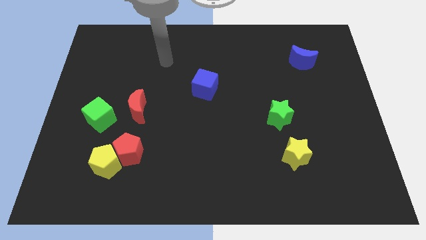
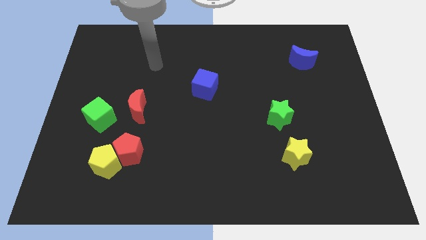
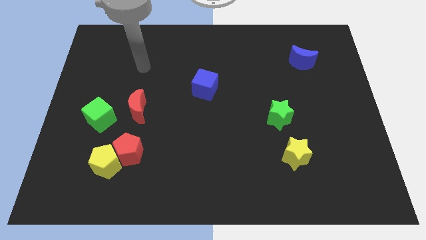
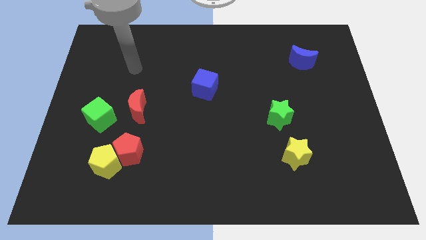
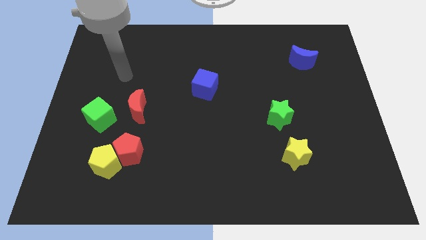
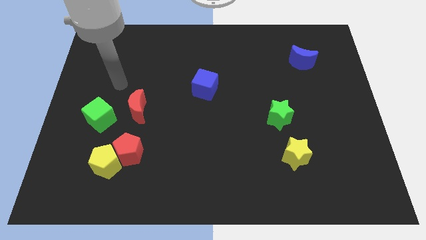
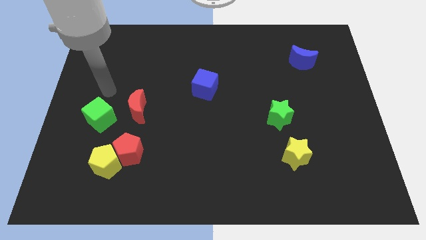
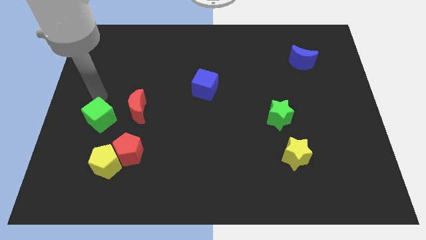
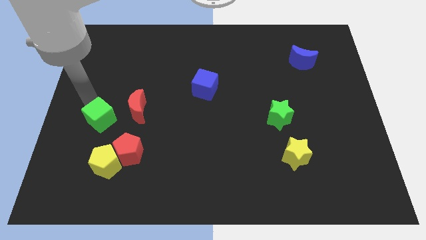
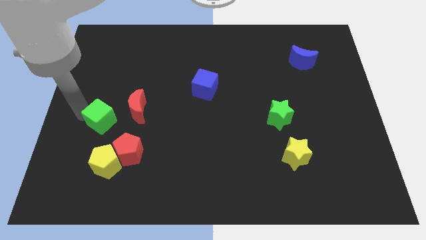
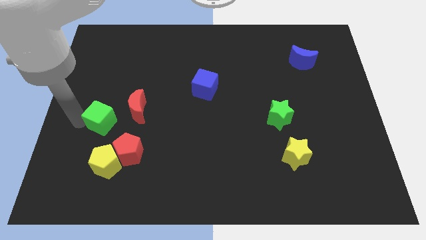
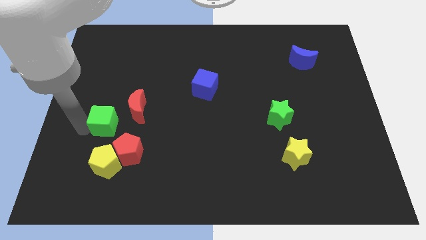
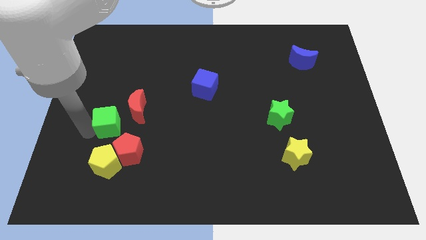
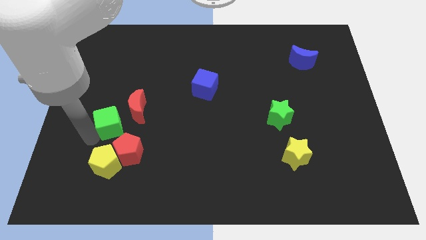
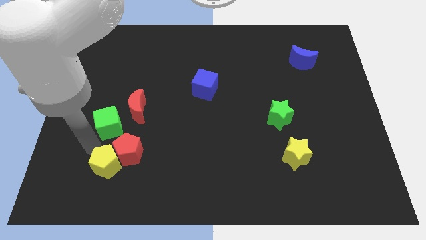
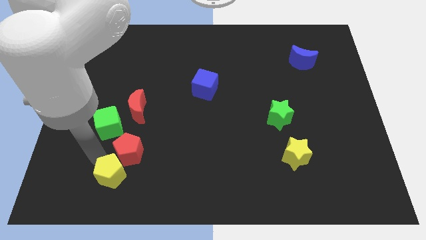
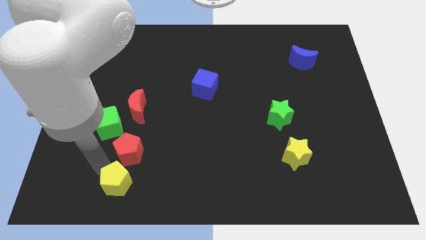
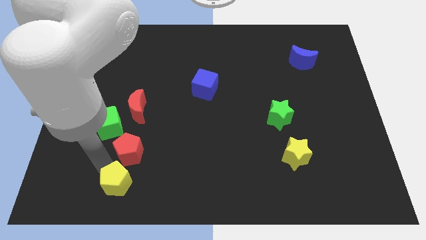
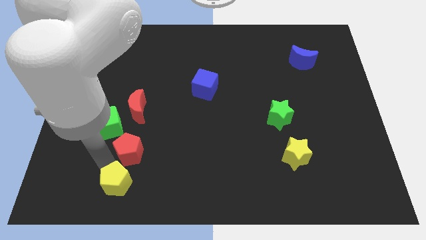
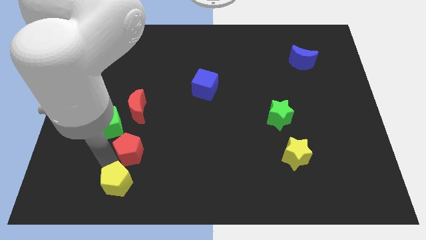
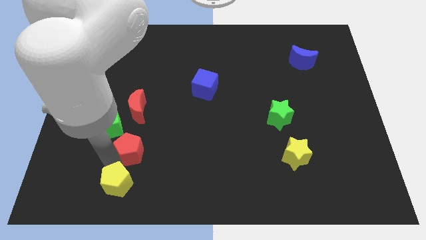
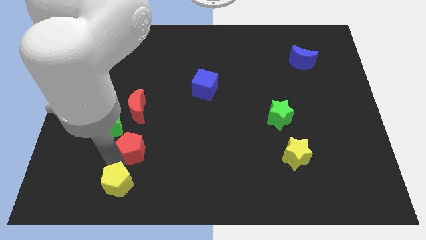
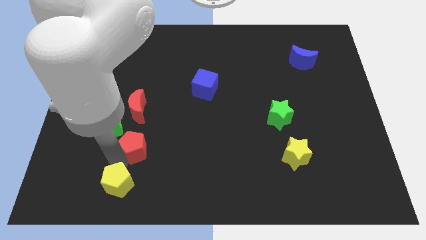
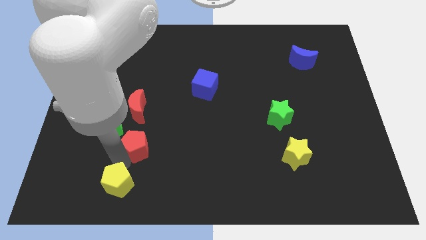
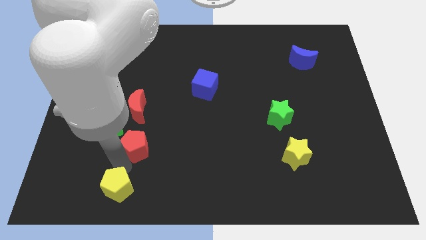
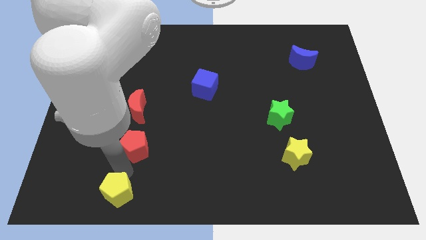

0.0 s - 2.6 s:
pull the red pentagon apart from the yellow pentagon

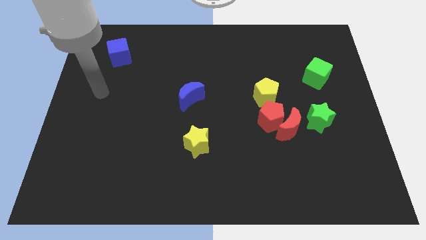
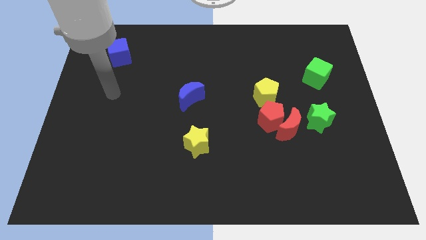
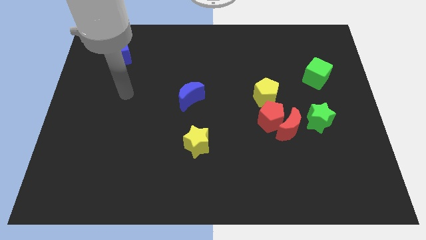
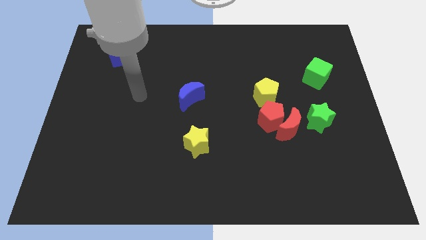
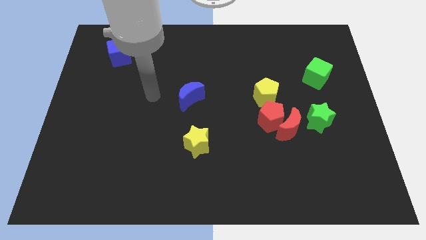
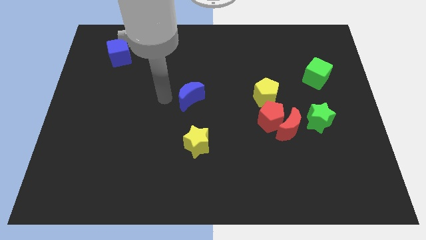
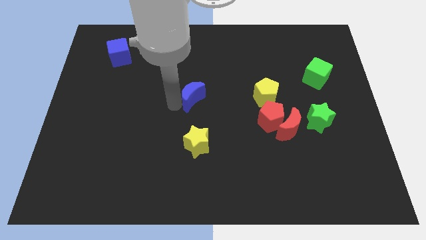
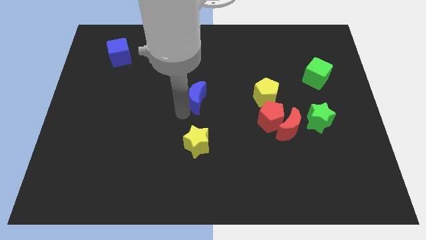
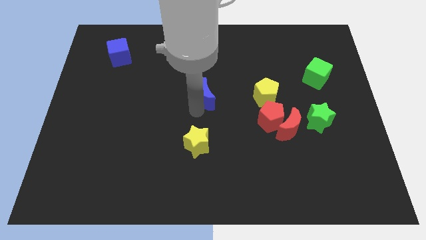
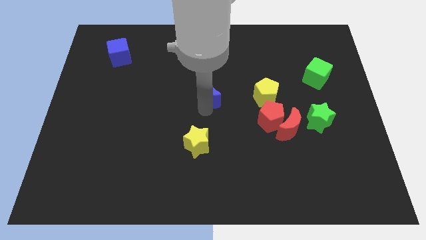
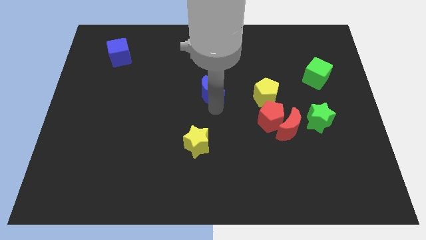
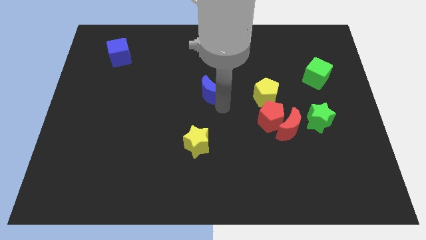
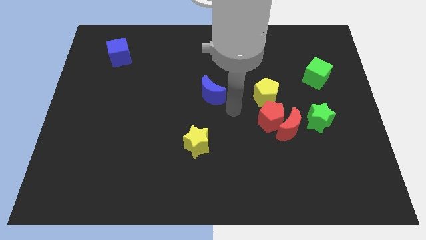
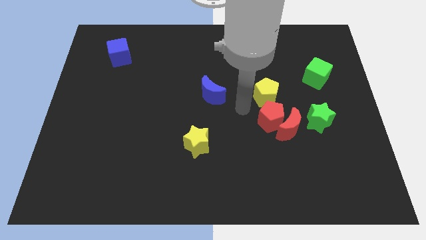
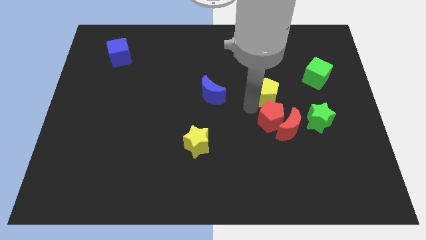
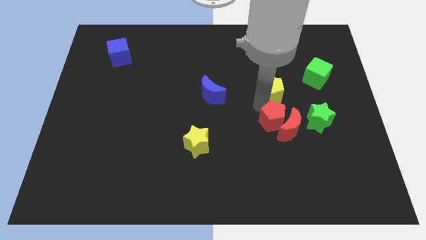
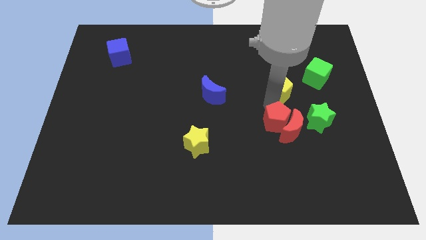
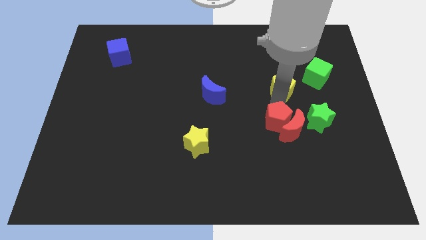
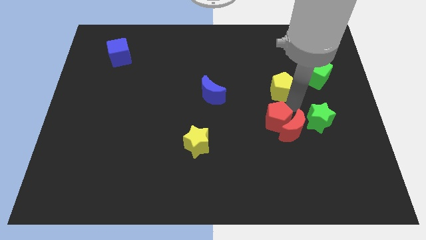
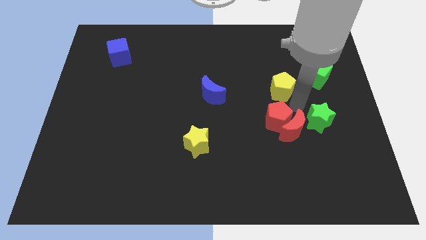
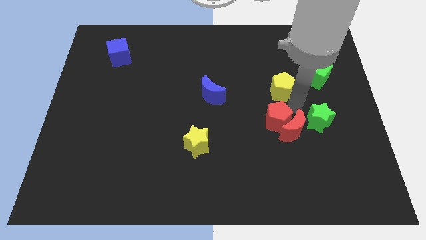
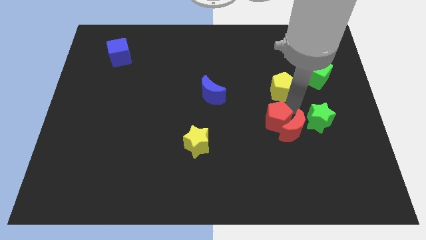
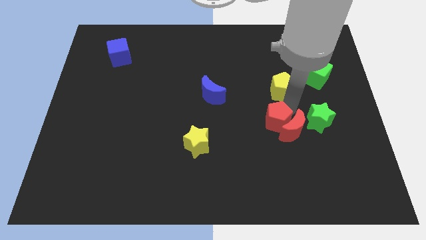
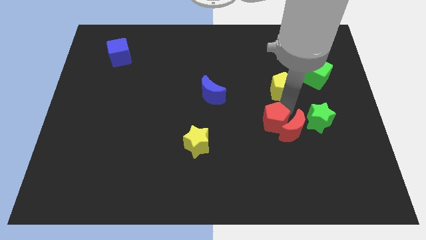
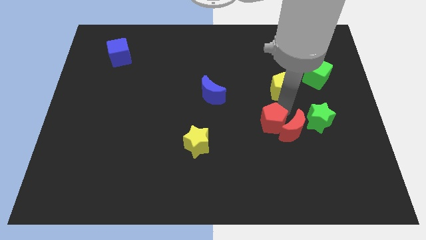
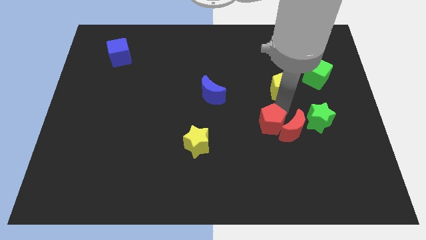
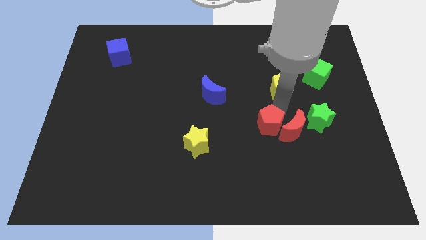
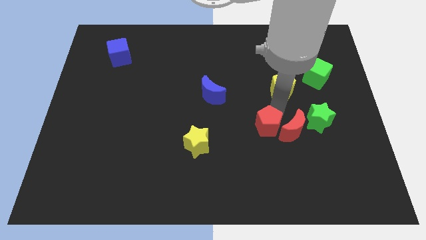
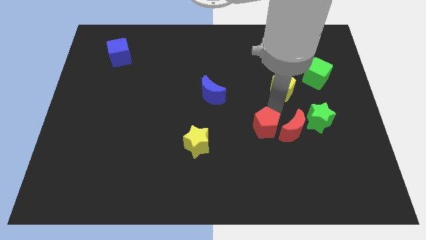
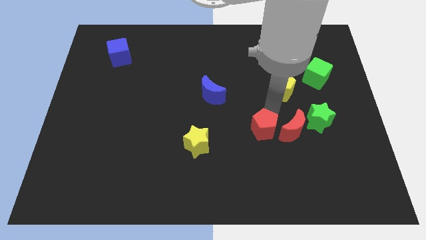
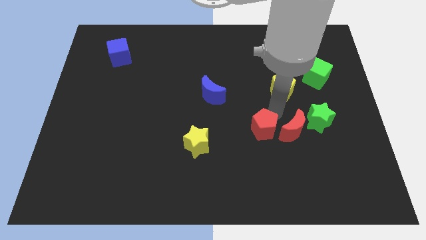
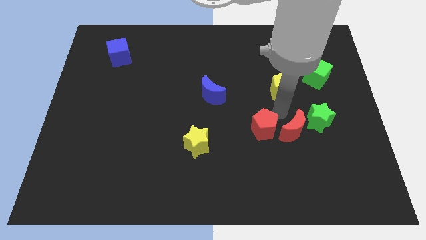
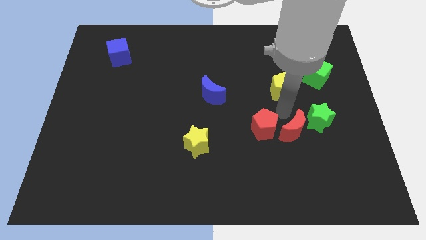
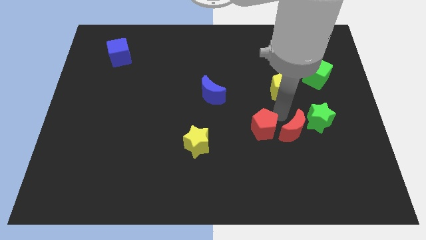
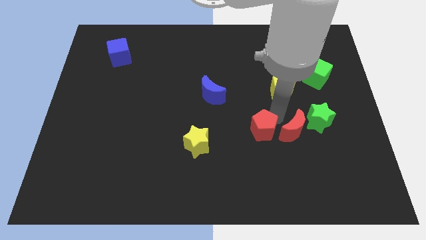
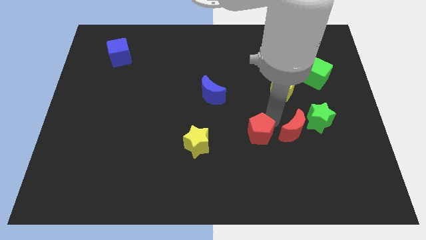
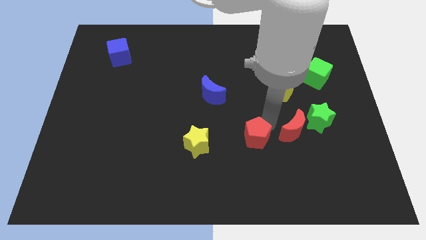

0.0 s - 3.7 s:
move the red pentagon away from the red moon and yellow pentagon

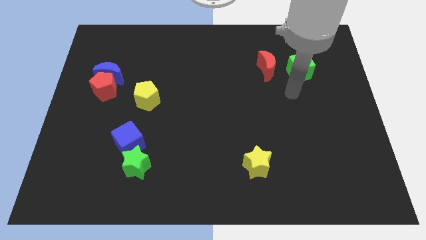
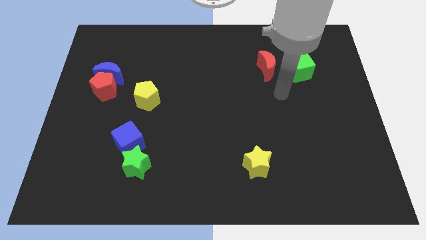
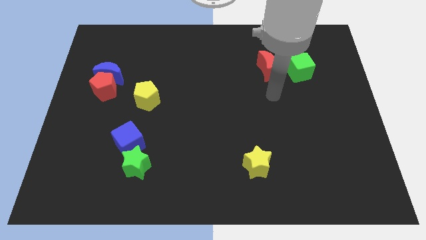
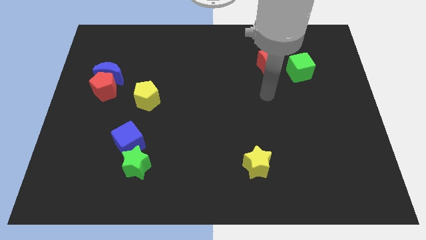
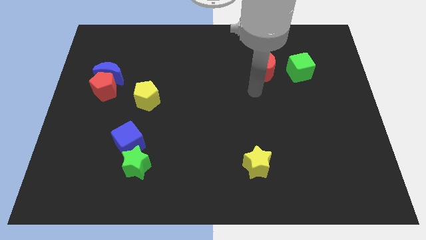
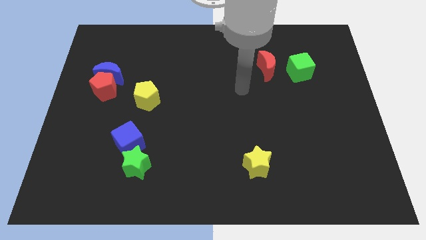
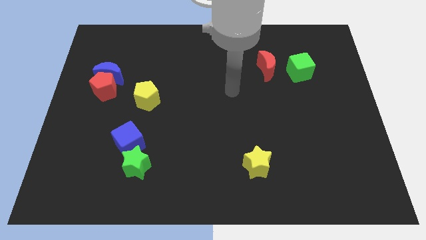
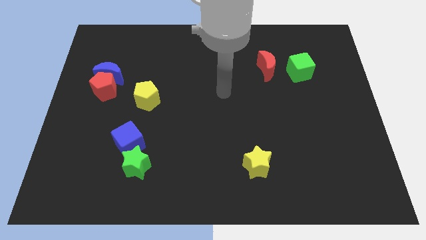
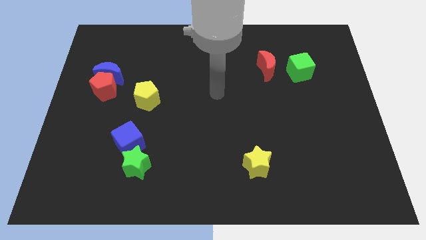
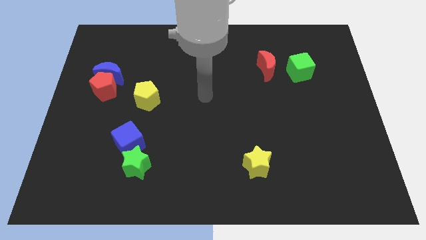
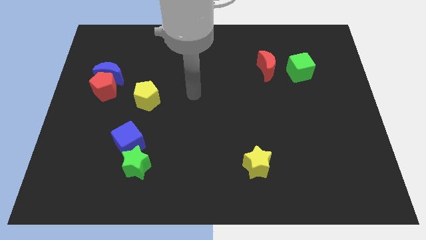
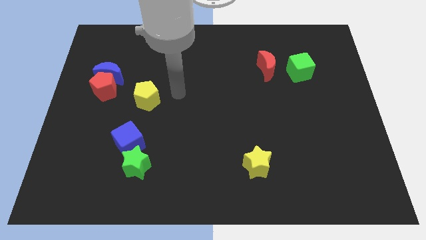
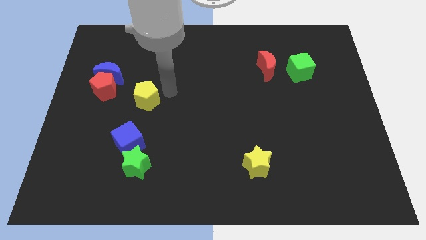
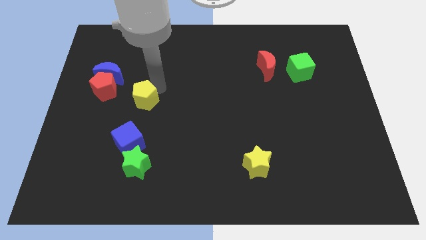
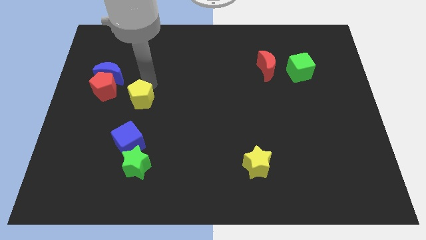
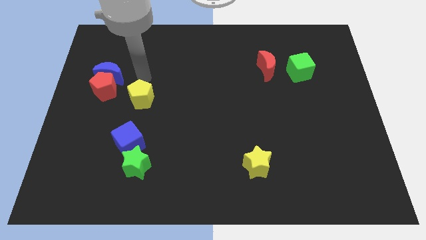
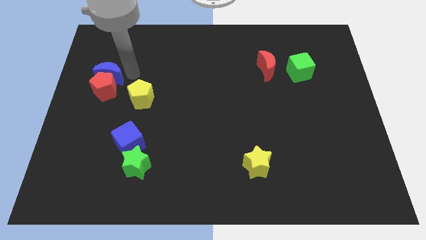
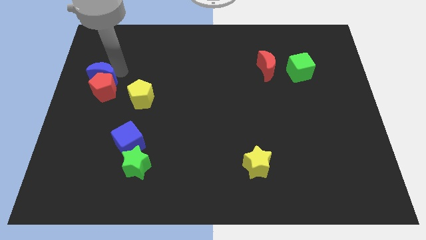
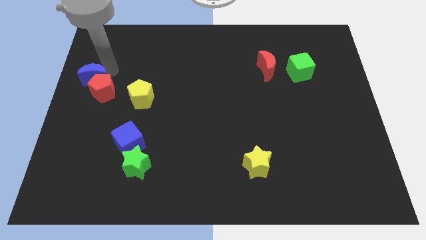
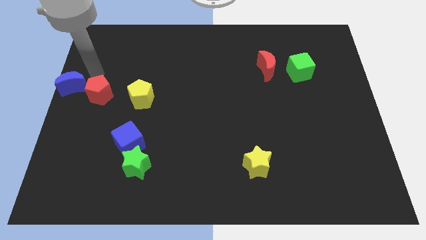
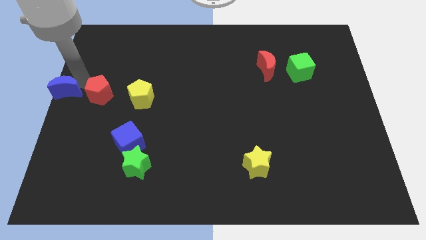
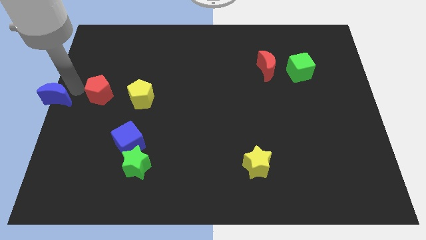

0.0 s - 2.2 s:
pull the red pentagon apart from the blue moon

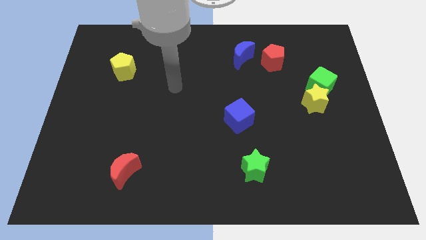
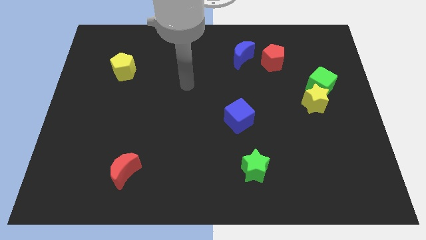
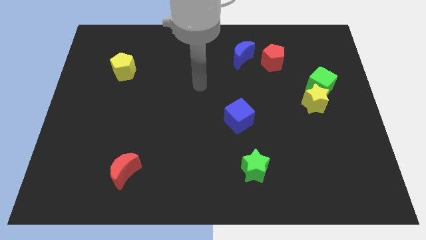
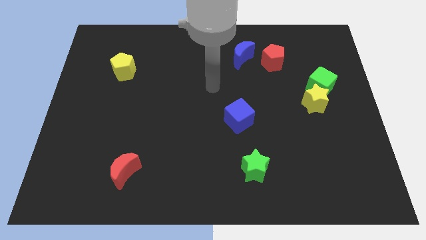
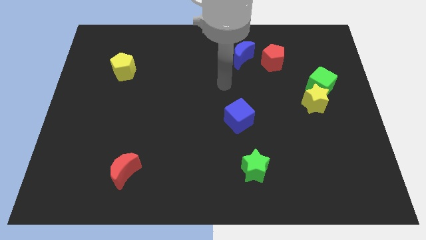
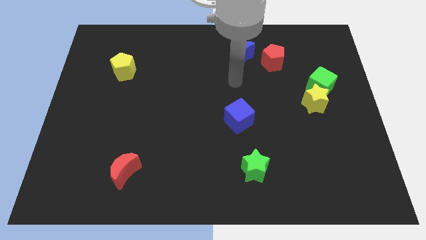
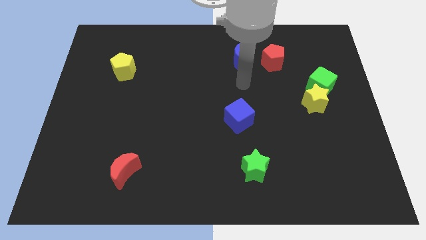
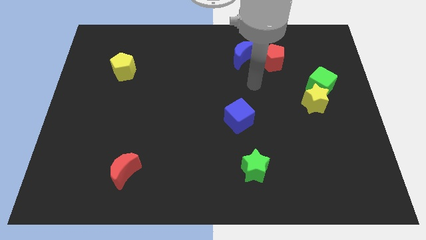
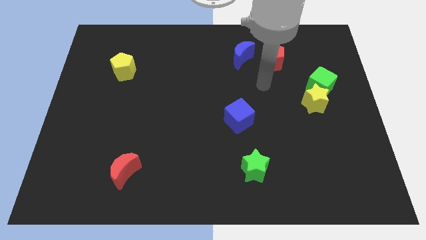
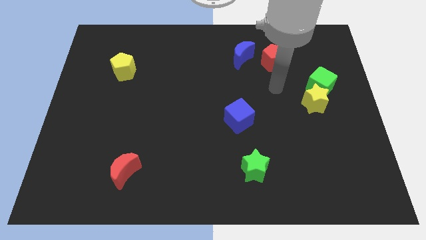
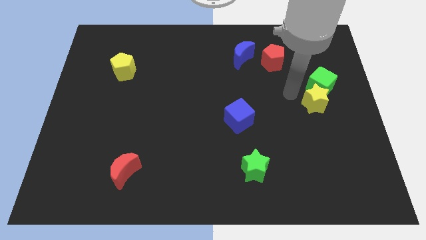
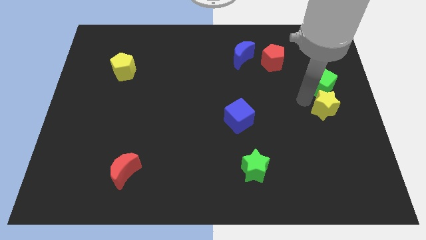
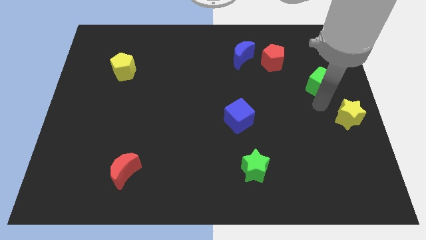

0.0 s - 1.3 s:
separate the green cube from the yellow star
